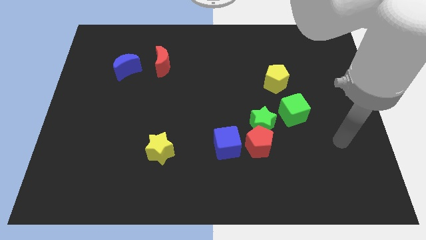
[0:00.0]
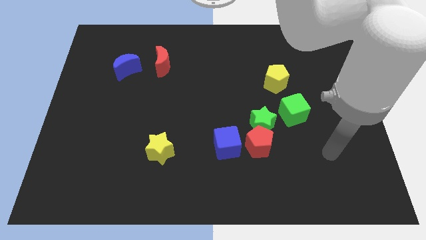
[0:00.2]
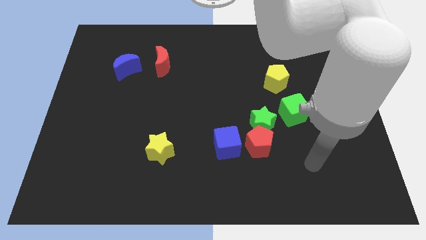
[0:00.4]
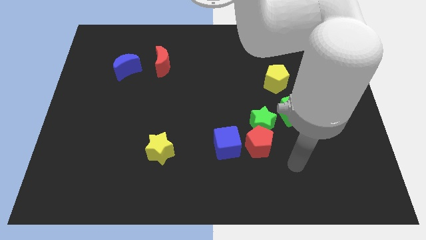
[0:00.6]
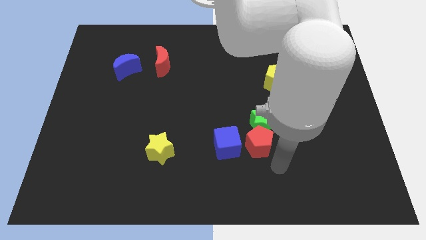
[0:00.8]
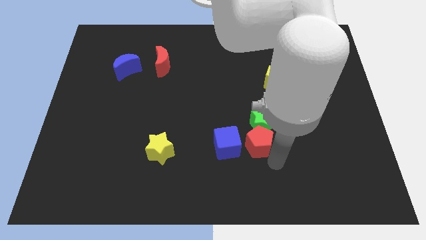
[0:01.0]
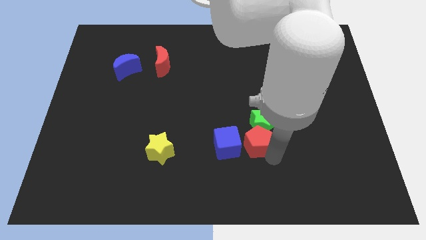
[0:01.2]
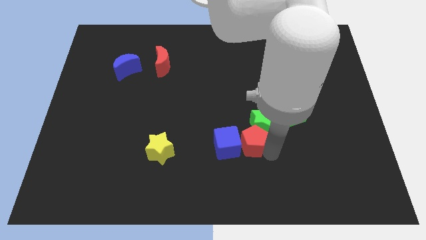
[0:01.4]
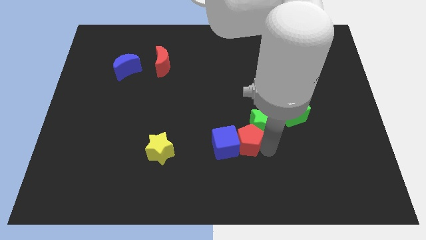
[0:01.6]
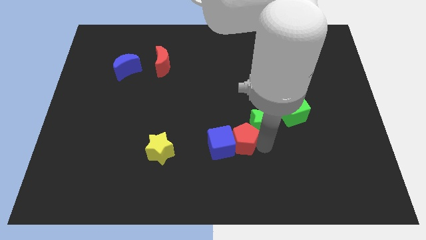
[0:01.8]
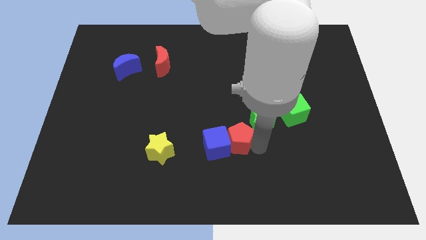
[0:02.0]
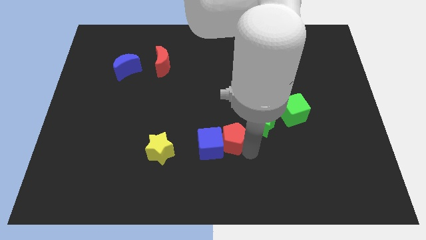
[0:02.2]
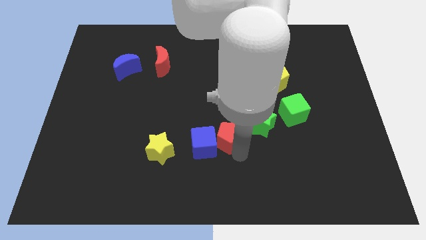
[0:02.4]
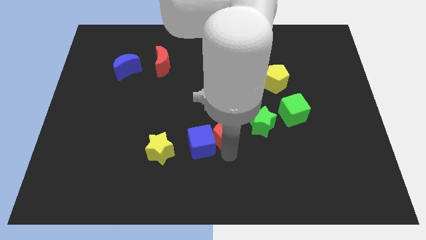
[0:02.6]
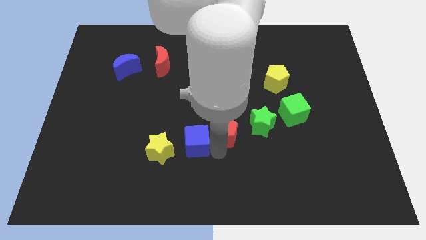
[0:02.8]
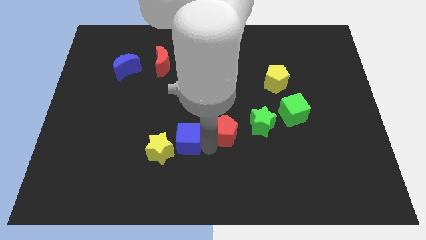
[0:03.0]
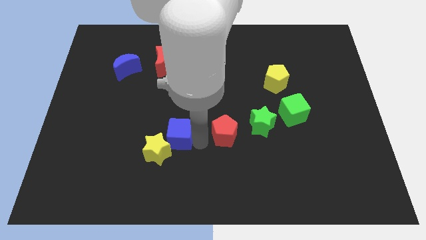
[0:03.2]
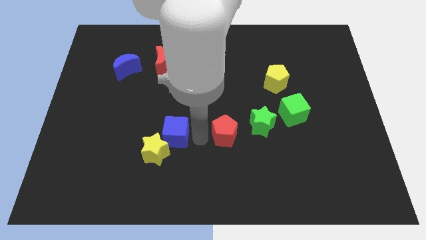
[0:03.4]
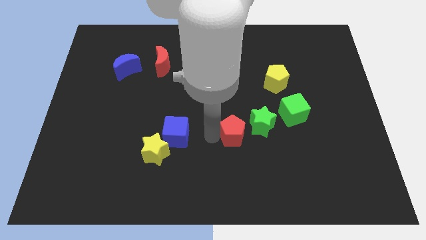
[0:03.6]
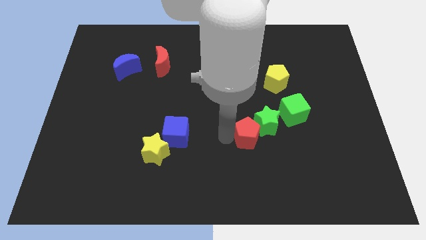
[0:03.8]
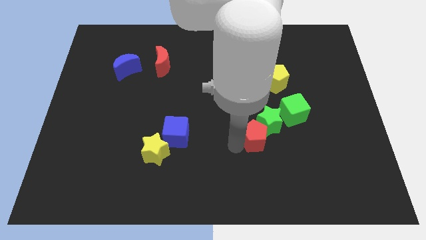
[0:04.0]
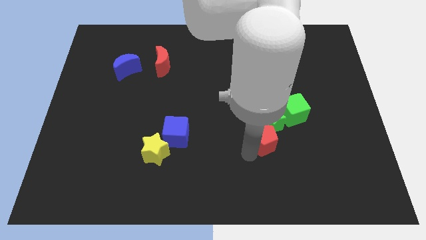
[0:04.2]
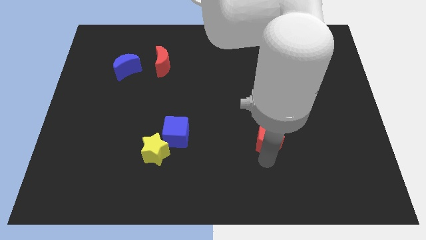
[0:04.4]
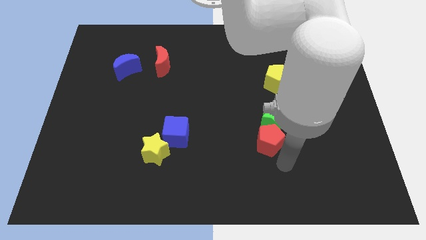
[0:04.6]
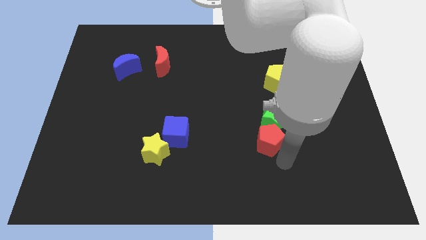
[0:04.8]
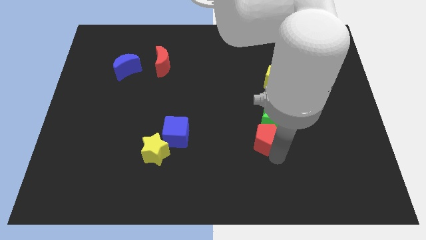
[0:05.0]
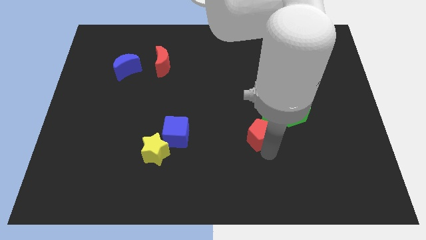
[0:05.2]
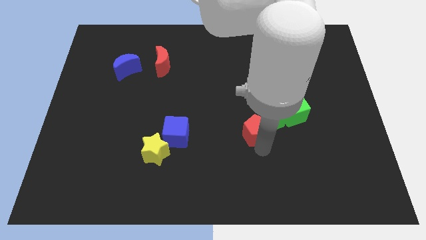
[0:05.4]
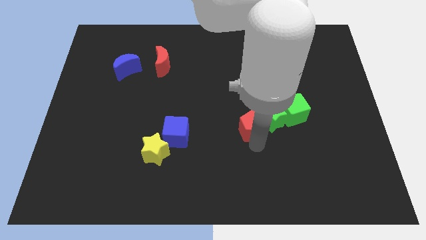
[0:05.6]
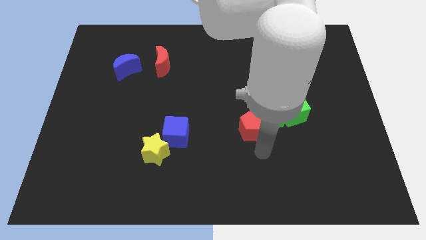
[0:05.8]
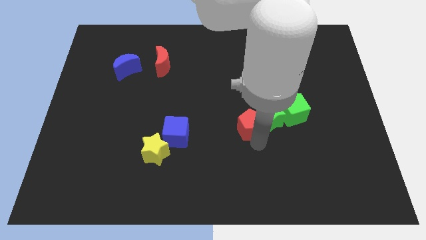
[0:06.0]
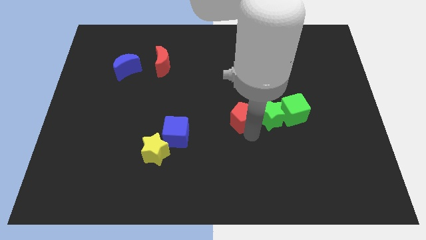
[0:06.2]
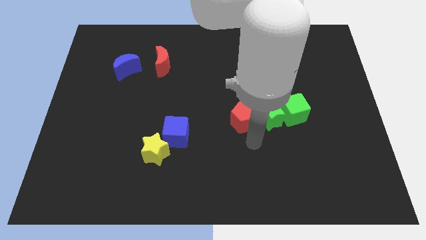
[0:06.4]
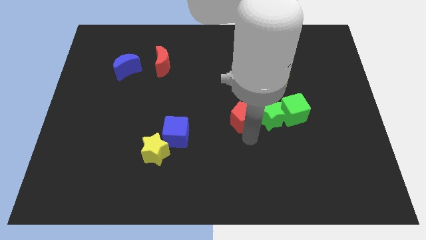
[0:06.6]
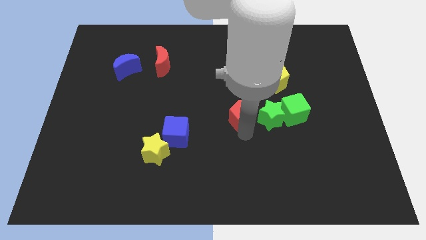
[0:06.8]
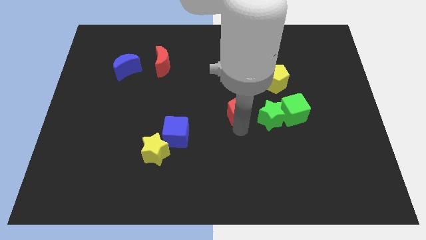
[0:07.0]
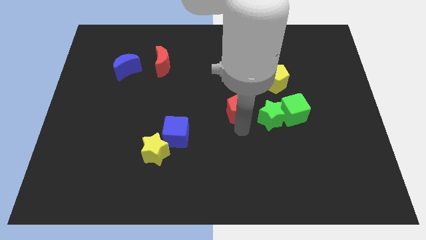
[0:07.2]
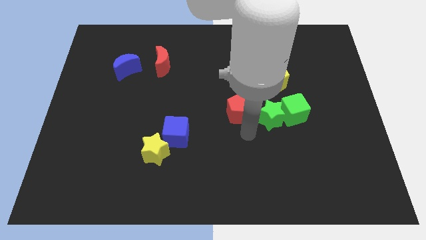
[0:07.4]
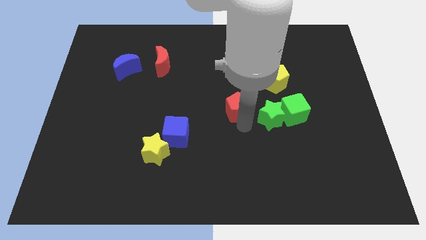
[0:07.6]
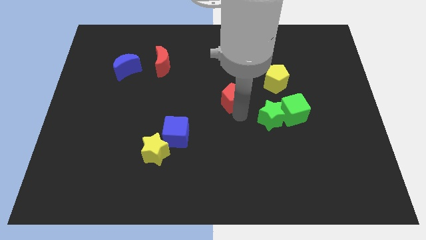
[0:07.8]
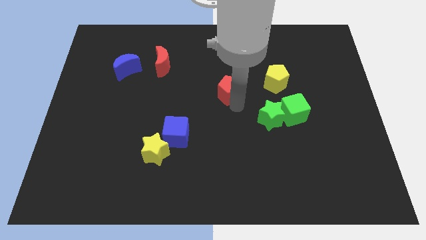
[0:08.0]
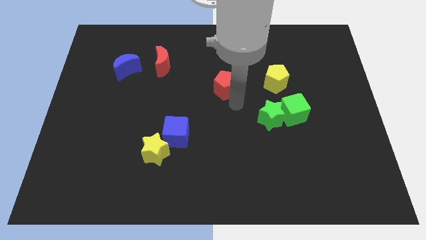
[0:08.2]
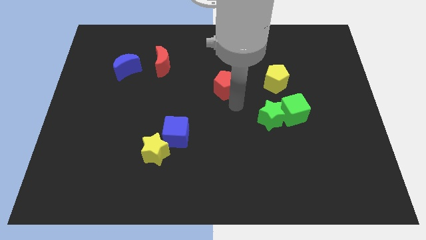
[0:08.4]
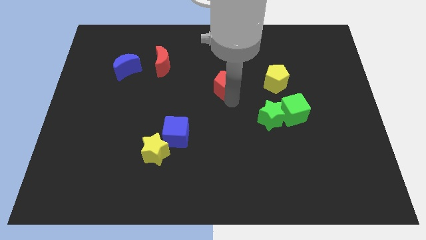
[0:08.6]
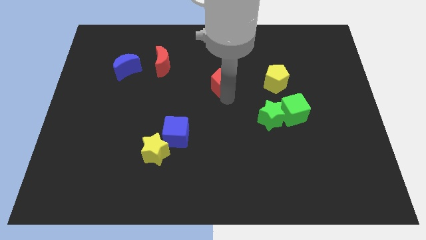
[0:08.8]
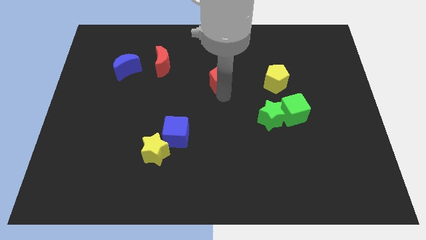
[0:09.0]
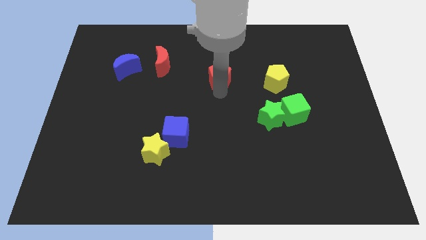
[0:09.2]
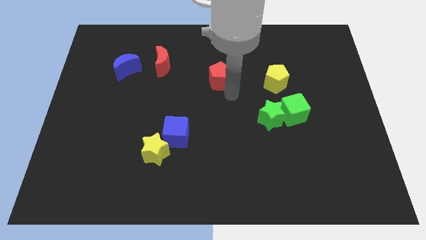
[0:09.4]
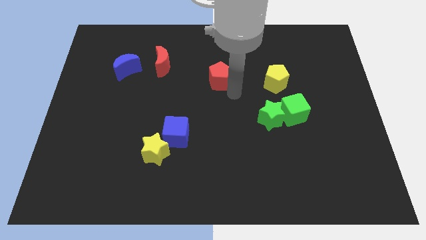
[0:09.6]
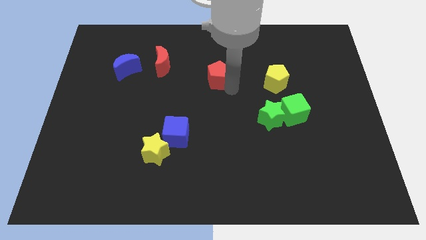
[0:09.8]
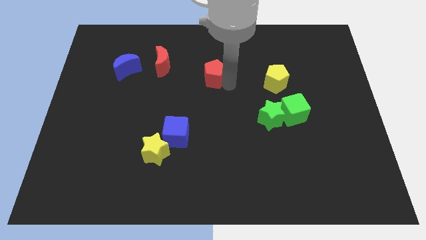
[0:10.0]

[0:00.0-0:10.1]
slide the red pentagon to the right side of the red moon

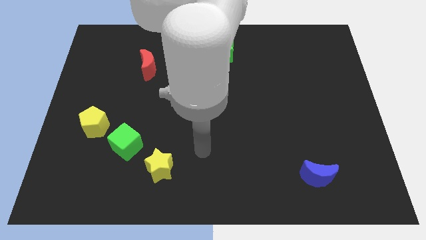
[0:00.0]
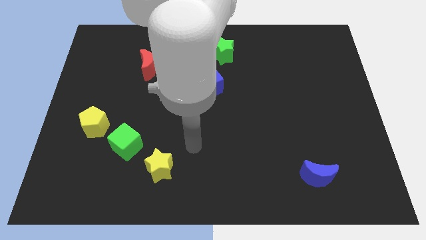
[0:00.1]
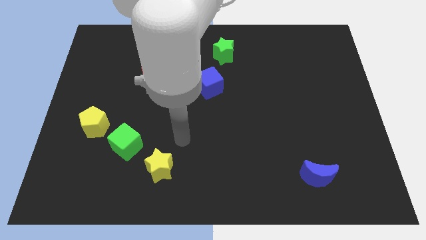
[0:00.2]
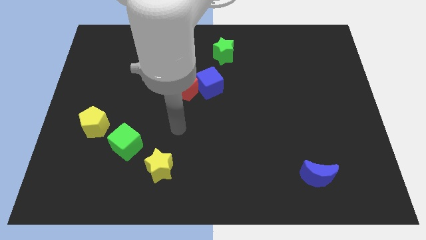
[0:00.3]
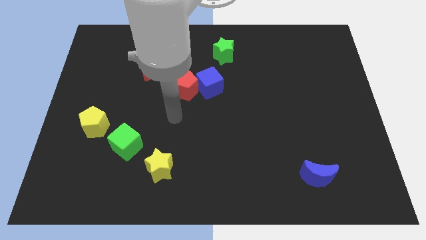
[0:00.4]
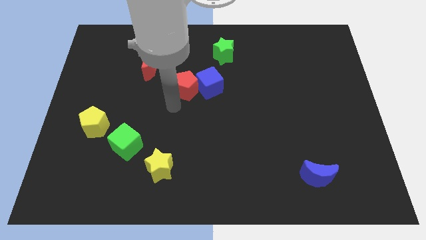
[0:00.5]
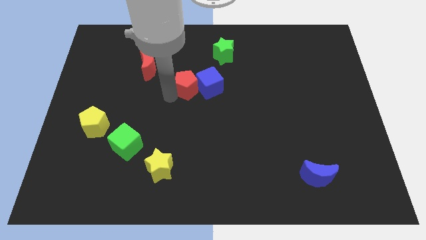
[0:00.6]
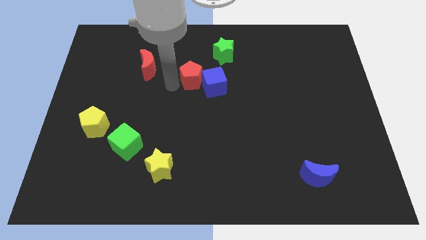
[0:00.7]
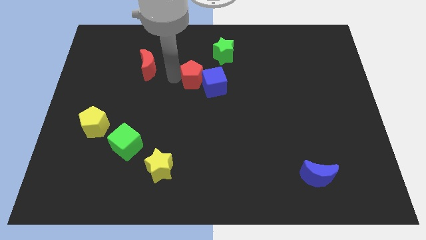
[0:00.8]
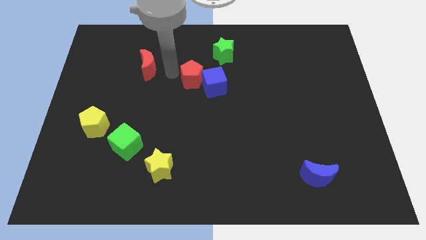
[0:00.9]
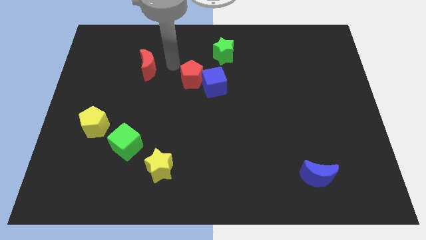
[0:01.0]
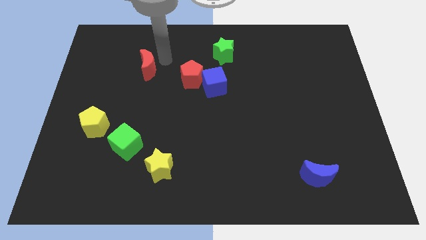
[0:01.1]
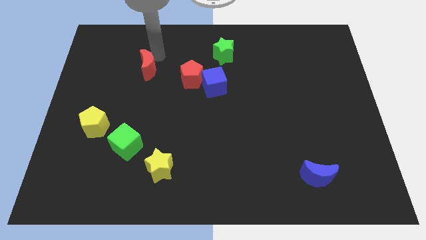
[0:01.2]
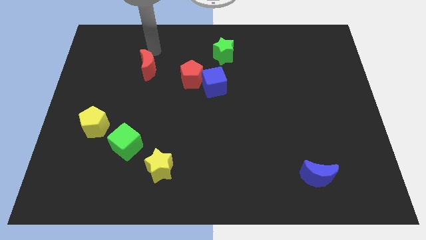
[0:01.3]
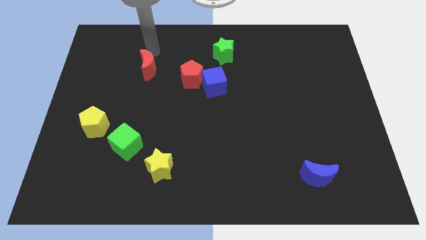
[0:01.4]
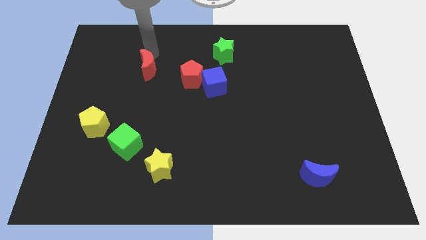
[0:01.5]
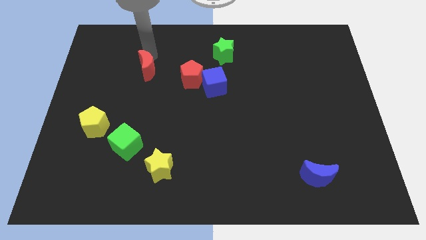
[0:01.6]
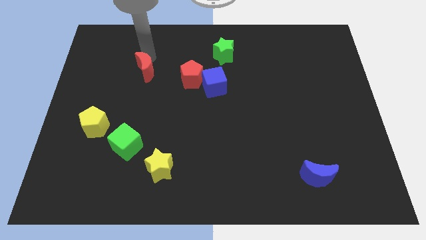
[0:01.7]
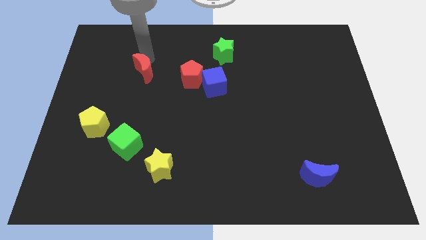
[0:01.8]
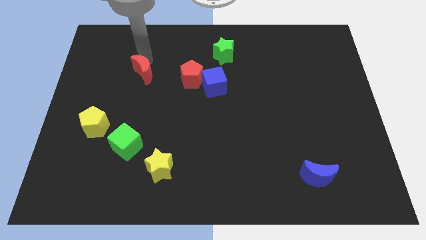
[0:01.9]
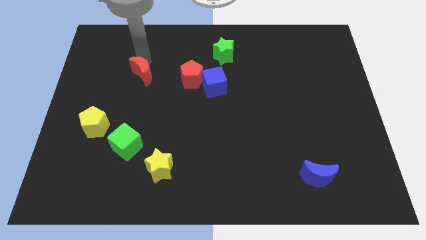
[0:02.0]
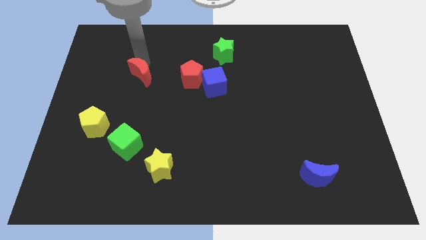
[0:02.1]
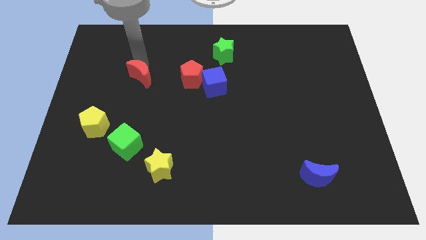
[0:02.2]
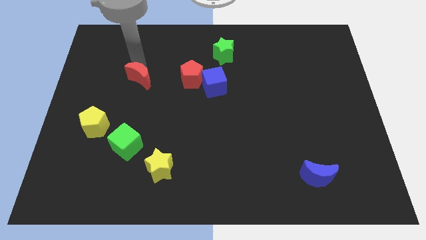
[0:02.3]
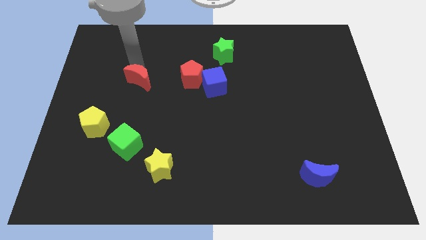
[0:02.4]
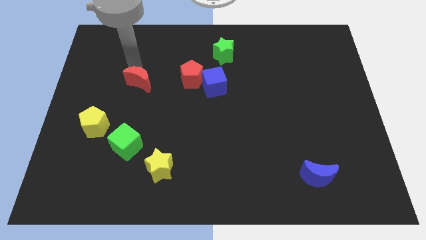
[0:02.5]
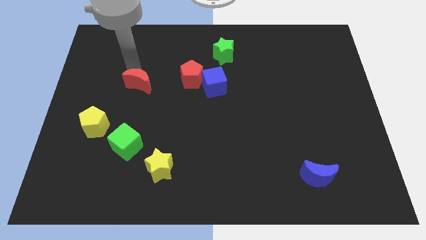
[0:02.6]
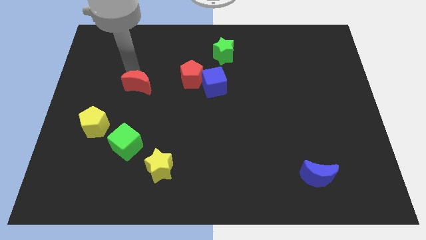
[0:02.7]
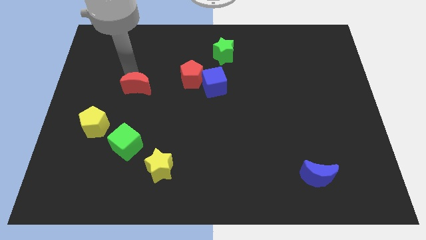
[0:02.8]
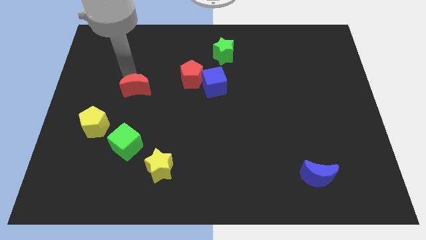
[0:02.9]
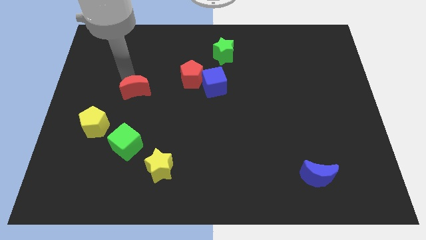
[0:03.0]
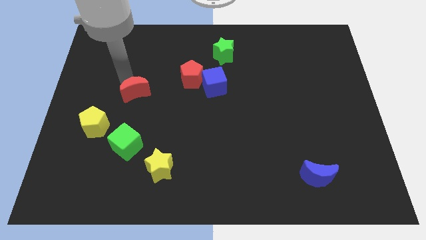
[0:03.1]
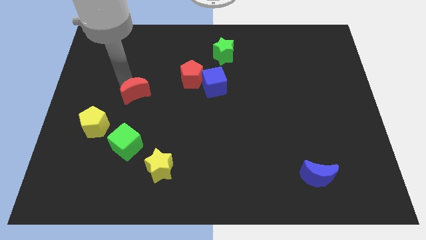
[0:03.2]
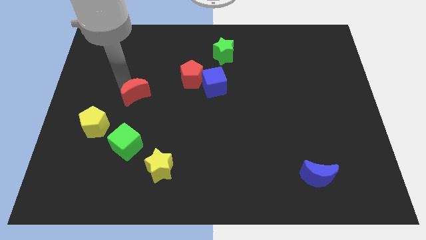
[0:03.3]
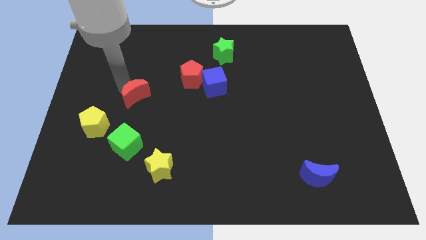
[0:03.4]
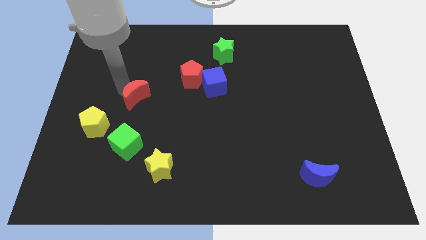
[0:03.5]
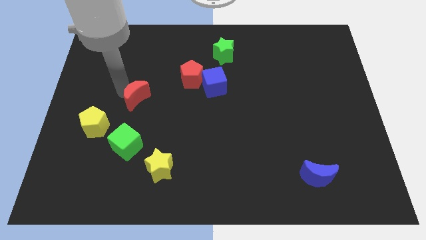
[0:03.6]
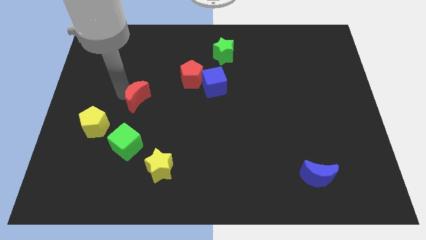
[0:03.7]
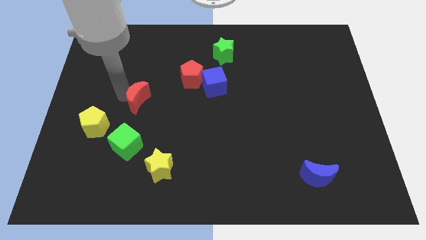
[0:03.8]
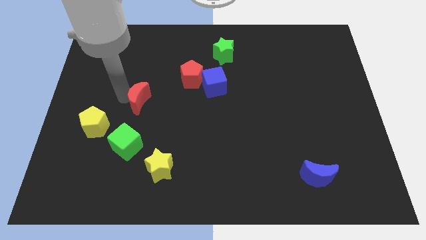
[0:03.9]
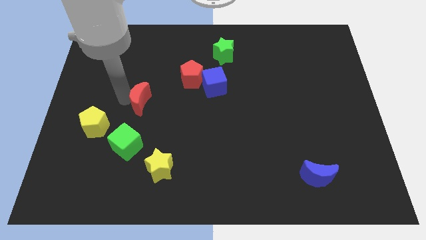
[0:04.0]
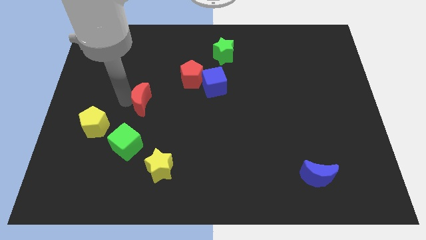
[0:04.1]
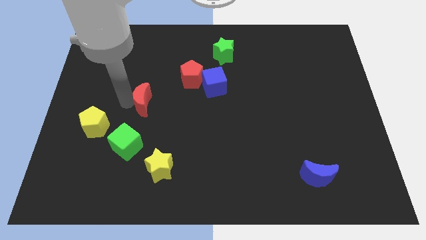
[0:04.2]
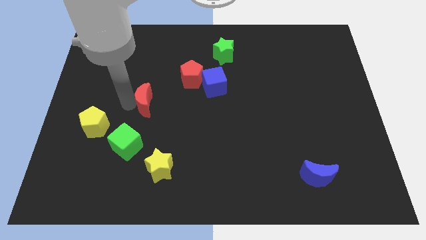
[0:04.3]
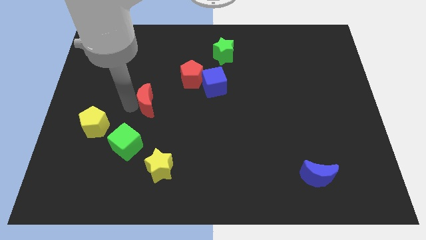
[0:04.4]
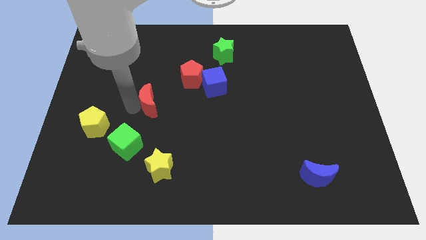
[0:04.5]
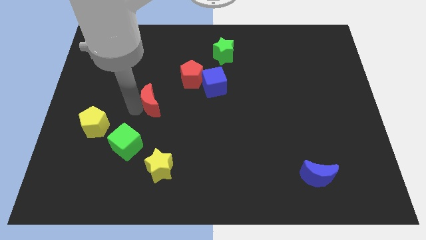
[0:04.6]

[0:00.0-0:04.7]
put the red moon diagonally down and to the left of the red pentagon
